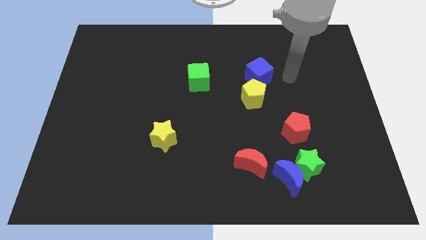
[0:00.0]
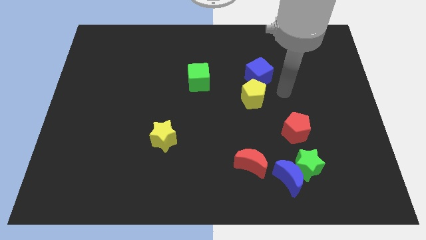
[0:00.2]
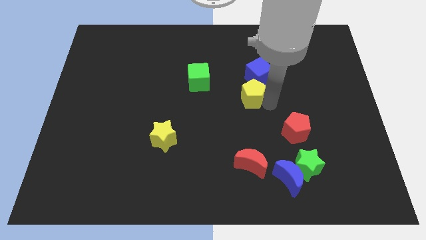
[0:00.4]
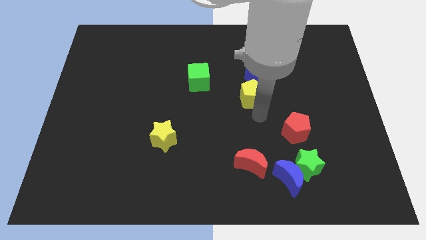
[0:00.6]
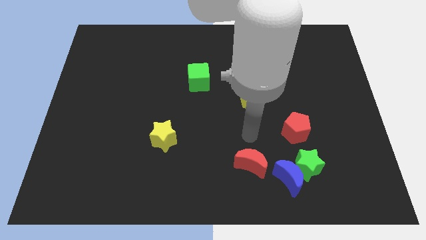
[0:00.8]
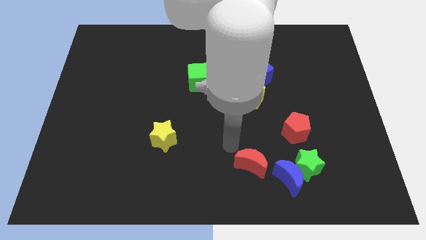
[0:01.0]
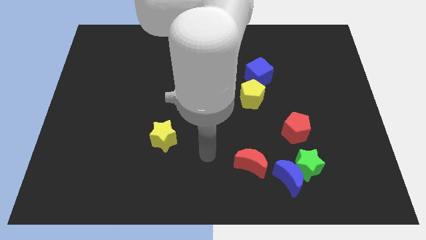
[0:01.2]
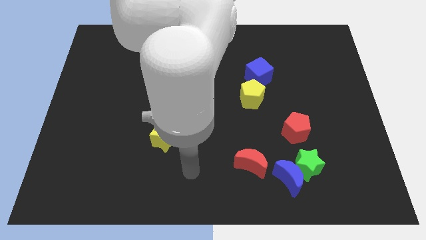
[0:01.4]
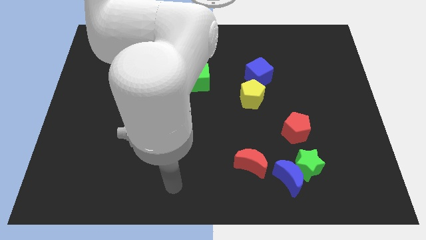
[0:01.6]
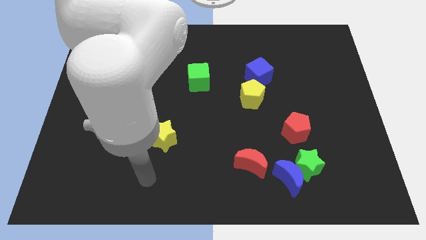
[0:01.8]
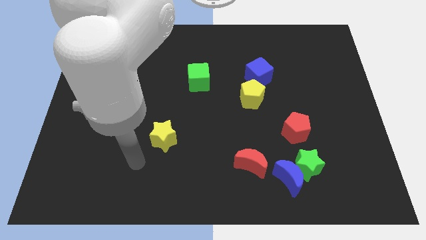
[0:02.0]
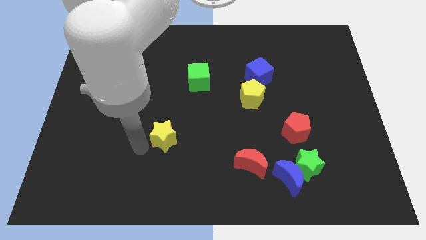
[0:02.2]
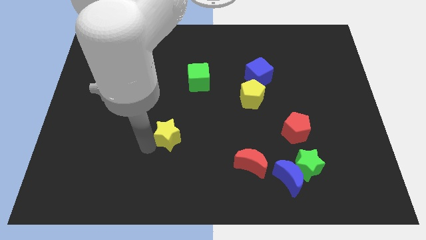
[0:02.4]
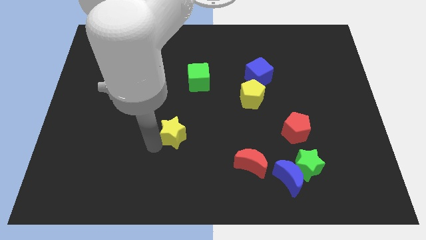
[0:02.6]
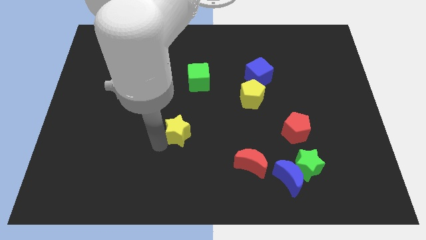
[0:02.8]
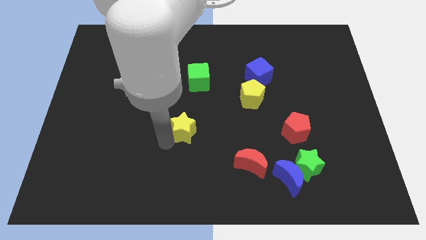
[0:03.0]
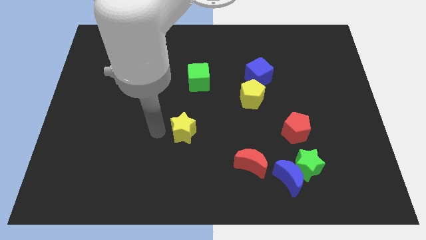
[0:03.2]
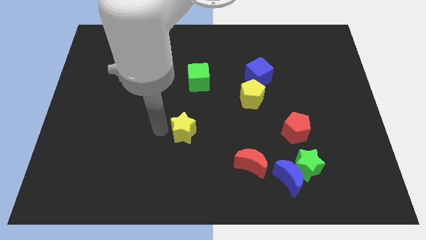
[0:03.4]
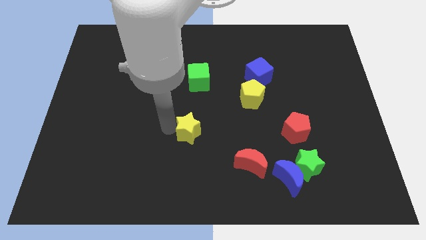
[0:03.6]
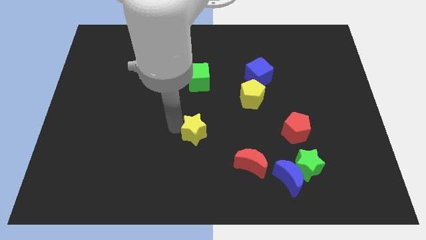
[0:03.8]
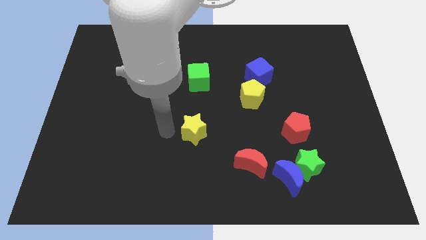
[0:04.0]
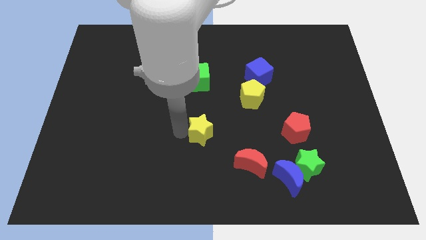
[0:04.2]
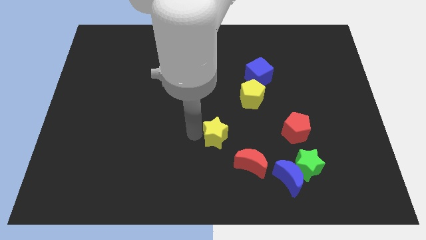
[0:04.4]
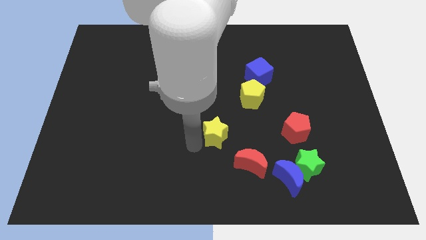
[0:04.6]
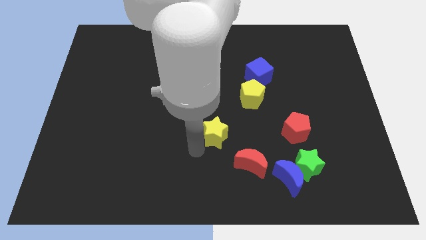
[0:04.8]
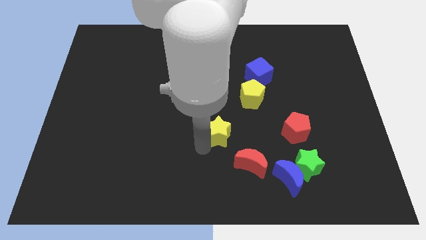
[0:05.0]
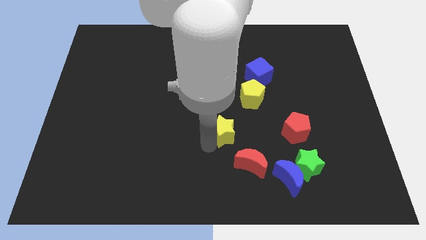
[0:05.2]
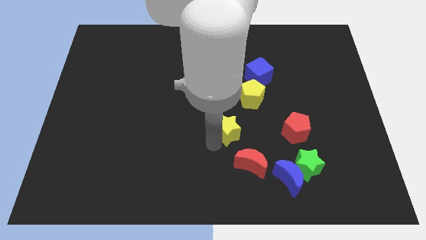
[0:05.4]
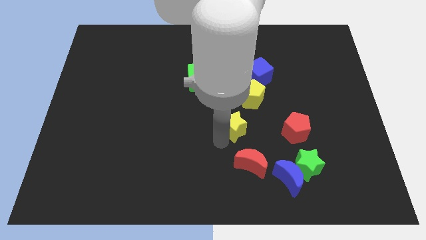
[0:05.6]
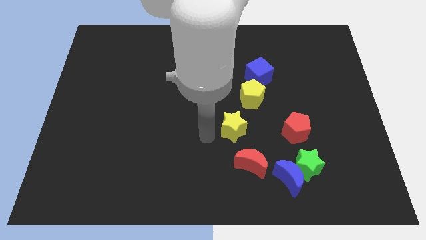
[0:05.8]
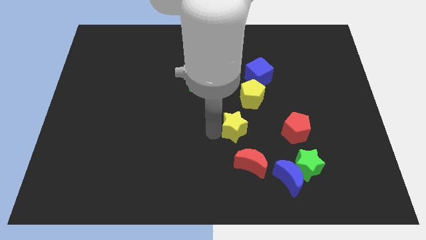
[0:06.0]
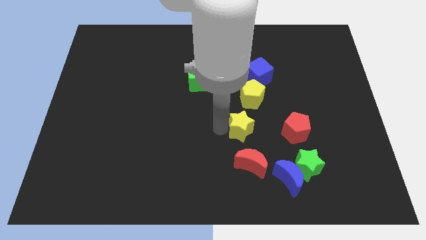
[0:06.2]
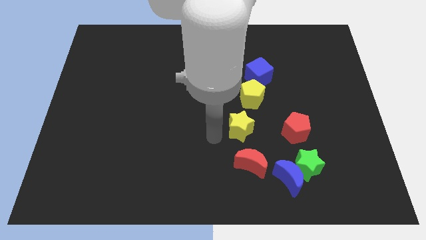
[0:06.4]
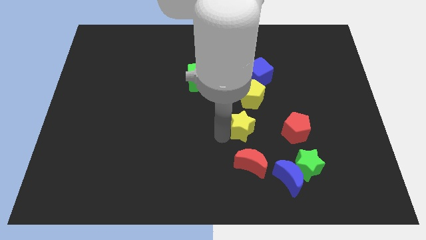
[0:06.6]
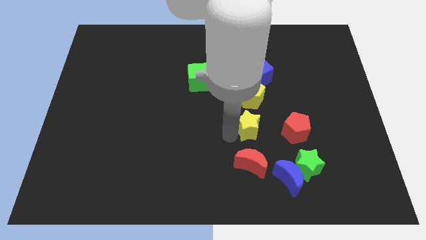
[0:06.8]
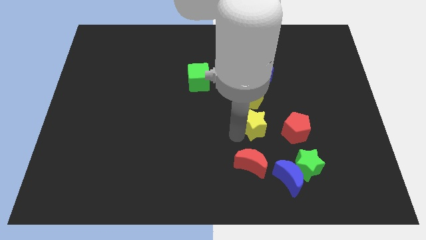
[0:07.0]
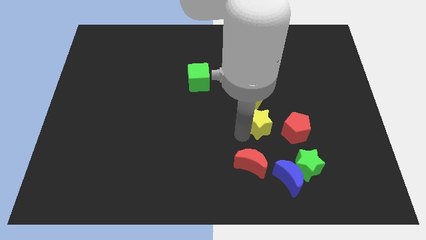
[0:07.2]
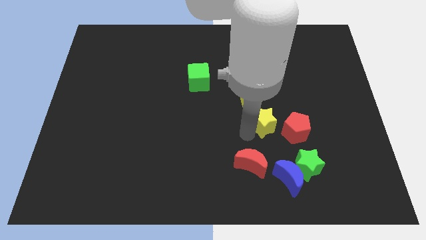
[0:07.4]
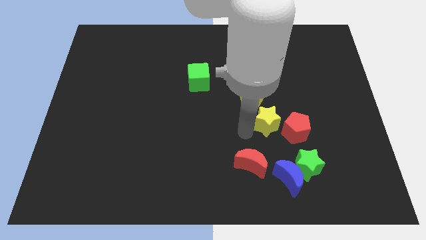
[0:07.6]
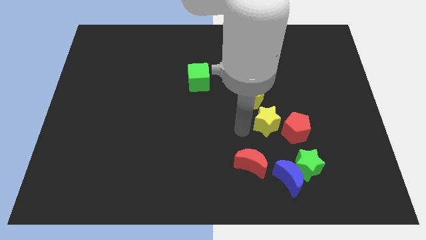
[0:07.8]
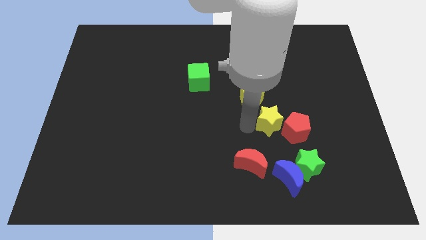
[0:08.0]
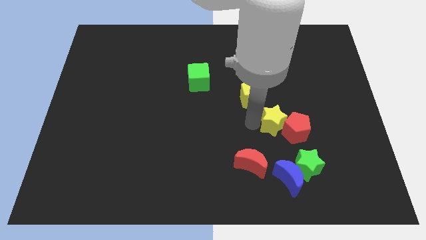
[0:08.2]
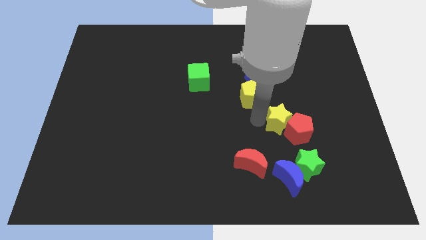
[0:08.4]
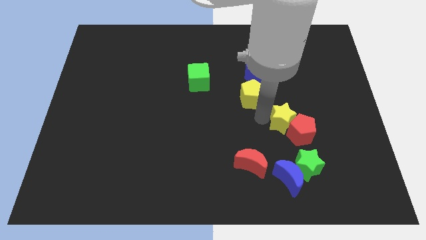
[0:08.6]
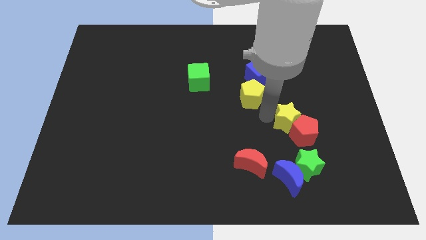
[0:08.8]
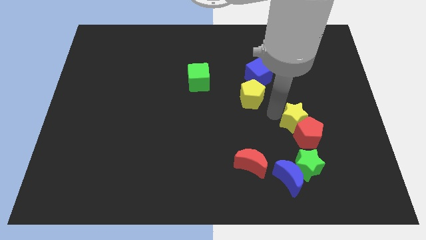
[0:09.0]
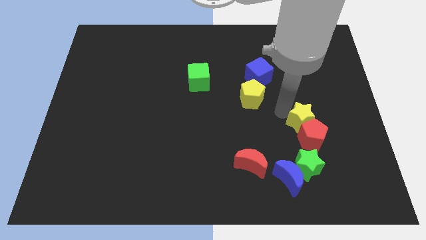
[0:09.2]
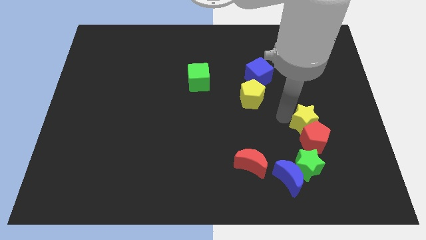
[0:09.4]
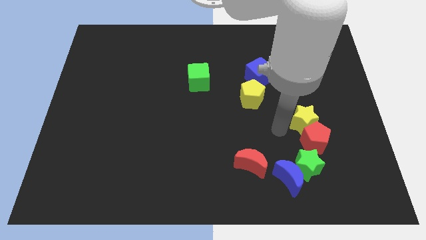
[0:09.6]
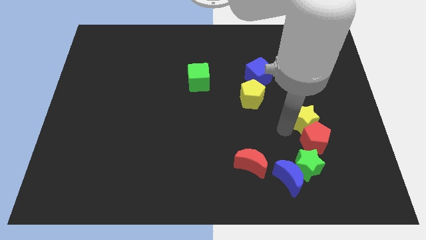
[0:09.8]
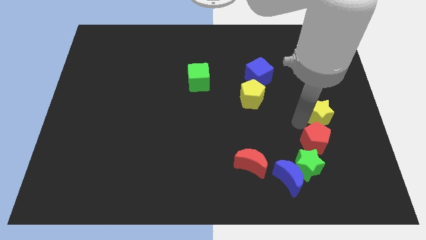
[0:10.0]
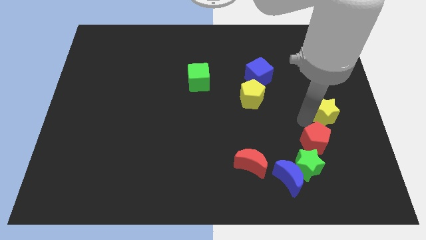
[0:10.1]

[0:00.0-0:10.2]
move the yellow star to the right side of the board

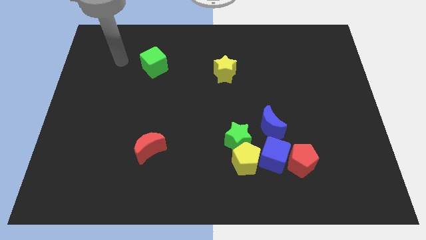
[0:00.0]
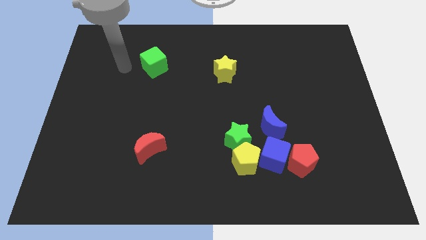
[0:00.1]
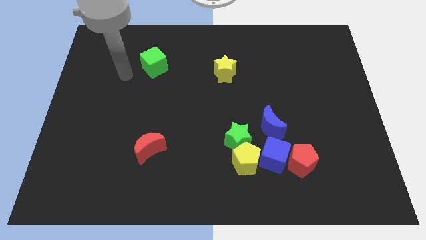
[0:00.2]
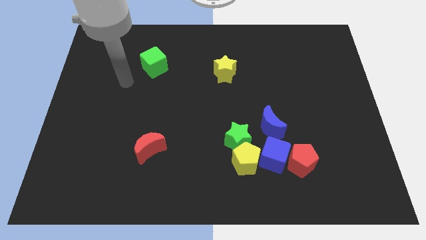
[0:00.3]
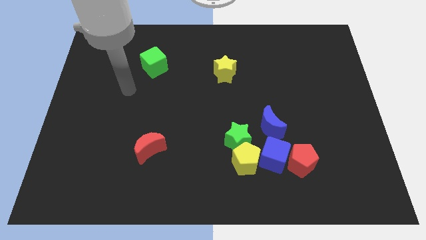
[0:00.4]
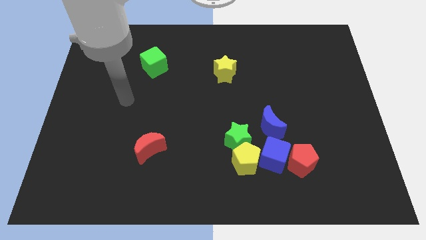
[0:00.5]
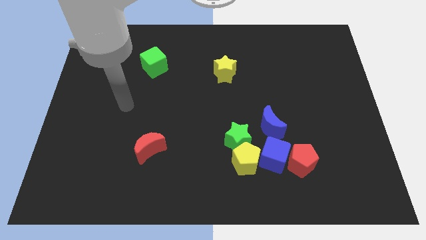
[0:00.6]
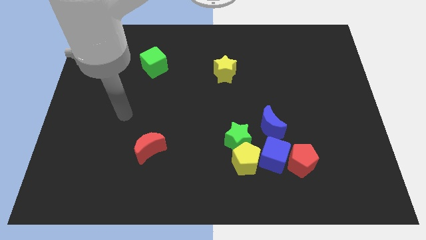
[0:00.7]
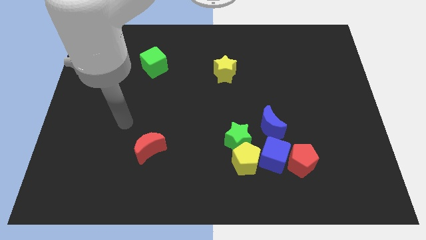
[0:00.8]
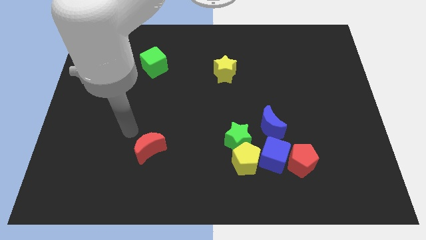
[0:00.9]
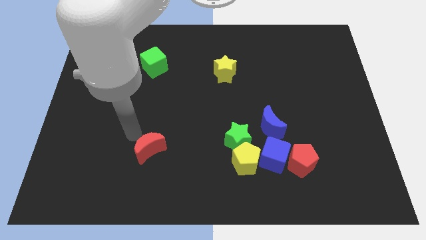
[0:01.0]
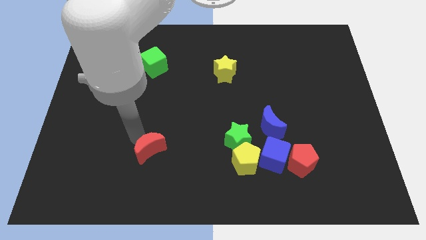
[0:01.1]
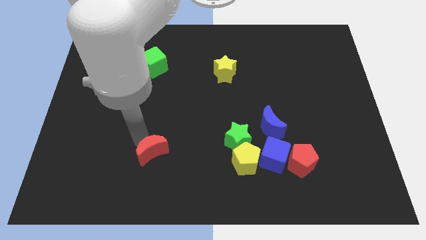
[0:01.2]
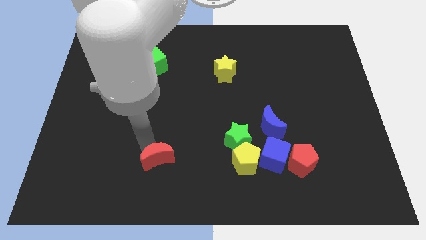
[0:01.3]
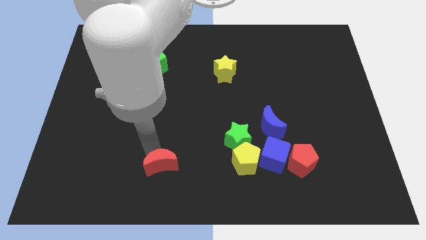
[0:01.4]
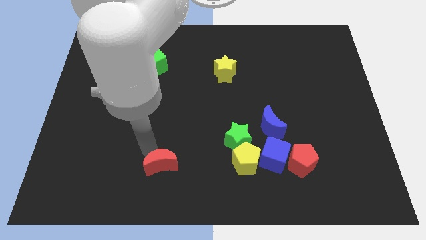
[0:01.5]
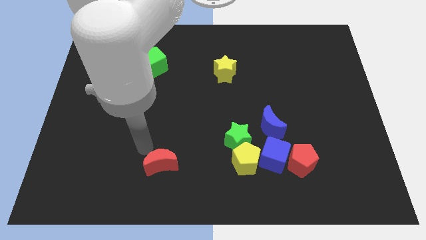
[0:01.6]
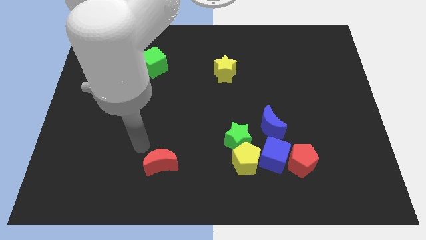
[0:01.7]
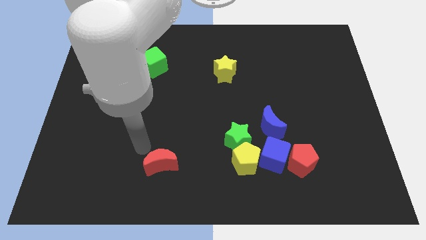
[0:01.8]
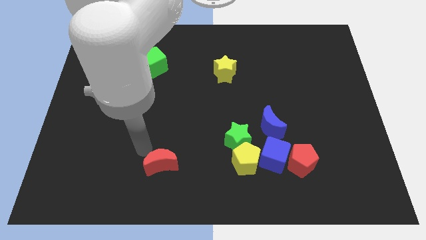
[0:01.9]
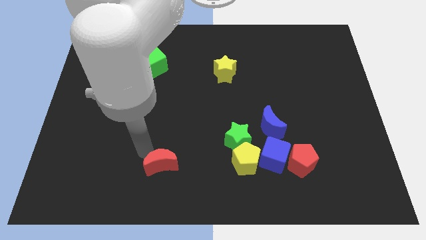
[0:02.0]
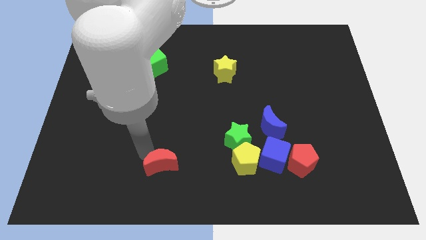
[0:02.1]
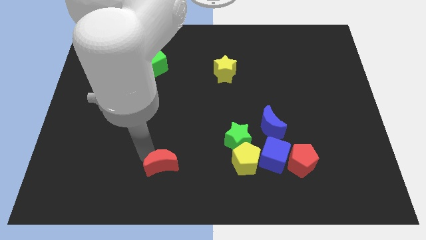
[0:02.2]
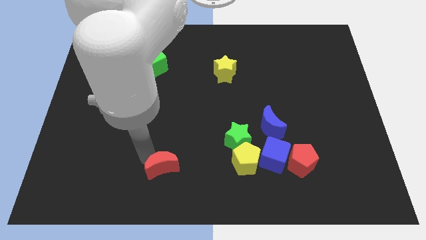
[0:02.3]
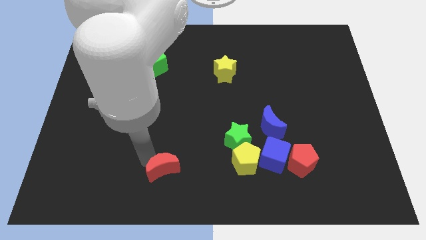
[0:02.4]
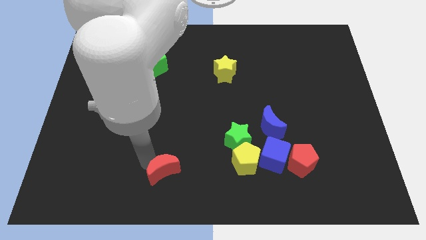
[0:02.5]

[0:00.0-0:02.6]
move the red moon to the bottom side
